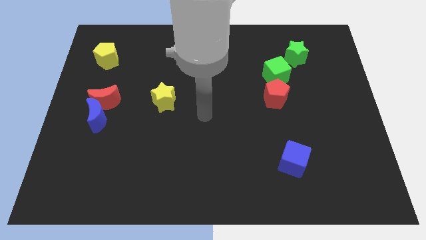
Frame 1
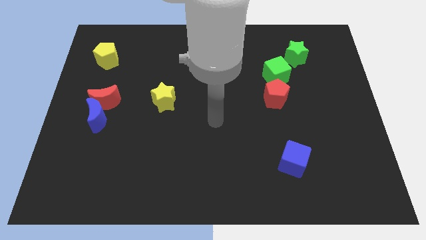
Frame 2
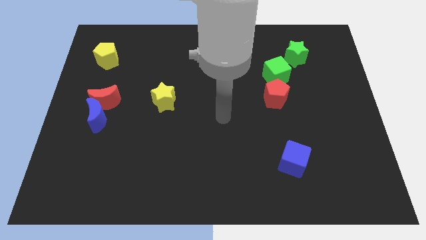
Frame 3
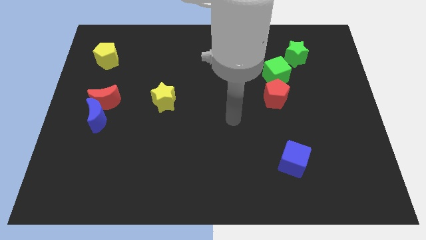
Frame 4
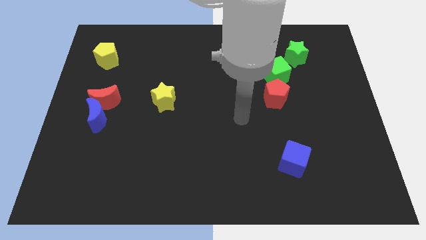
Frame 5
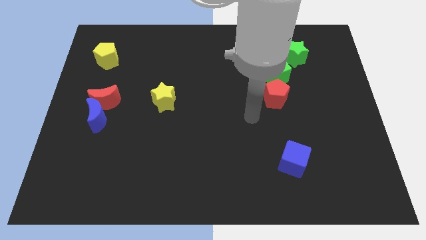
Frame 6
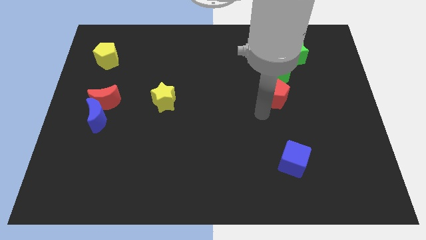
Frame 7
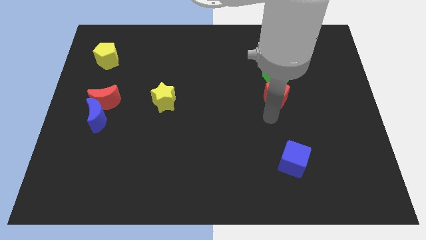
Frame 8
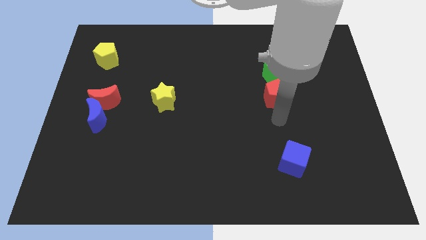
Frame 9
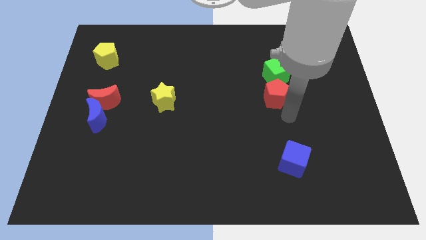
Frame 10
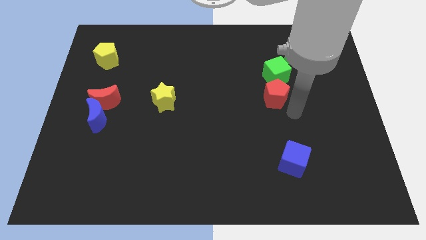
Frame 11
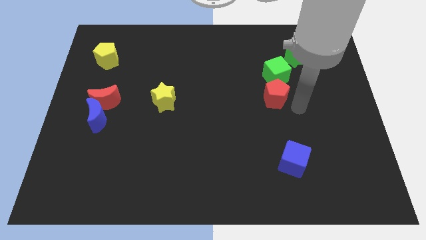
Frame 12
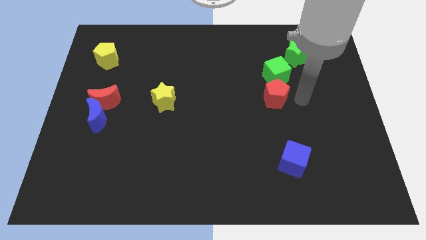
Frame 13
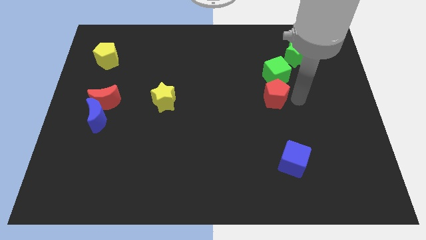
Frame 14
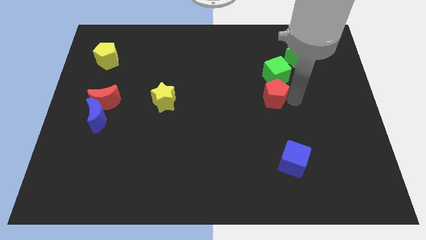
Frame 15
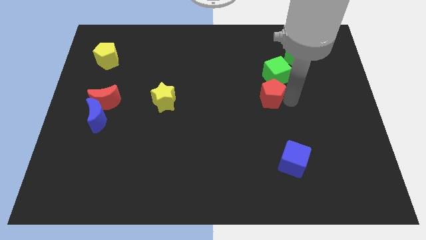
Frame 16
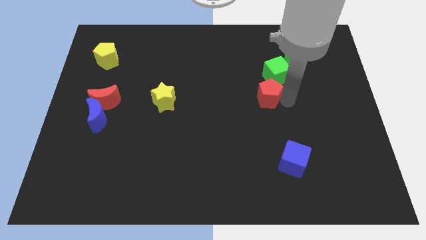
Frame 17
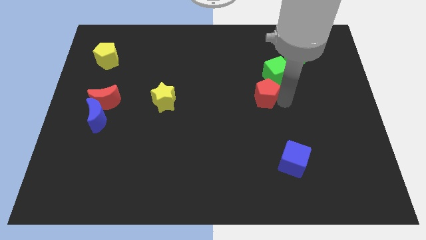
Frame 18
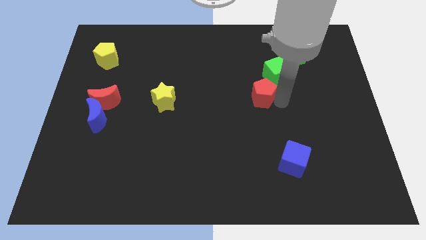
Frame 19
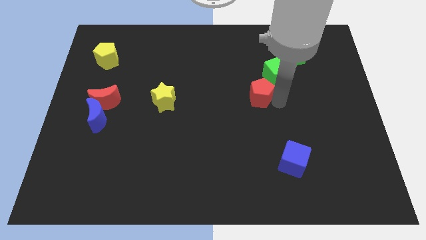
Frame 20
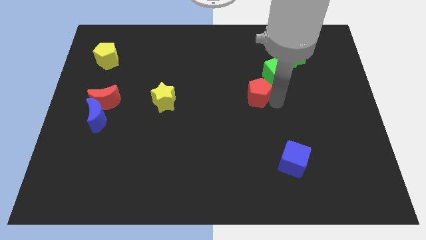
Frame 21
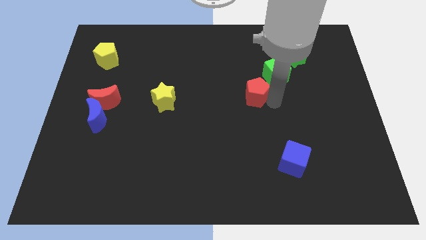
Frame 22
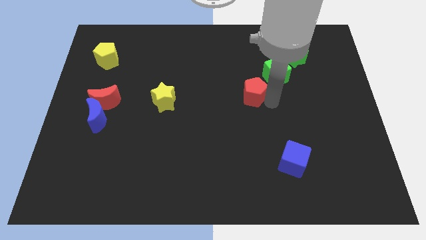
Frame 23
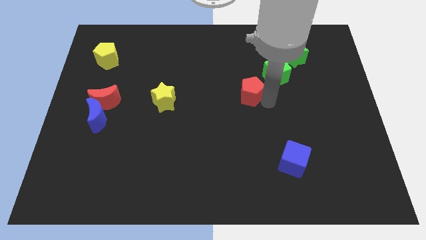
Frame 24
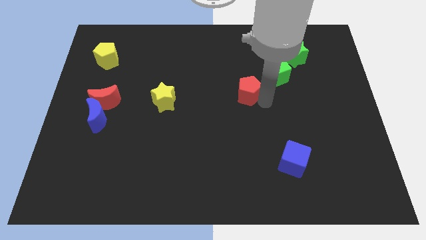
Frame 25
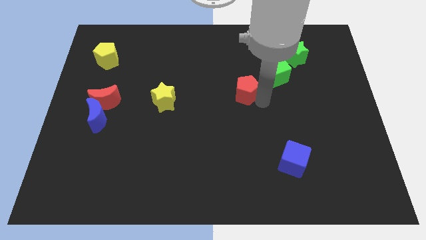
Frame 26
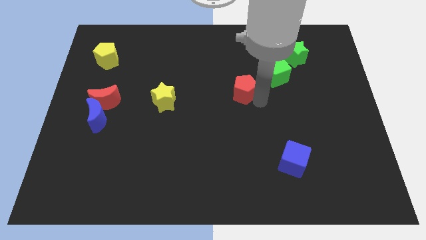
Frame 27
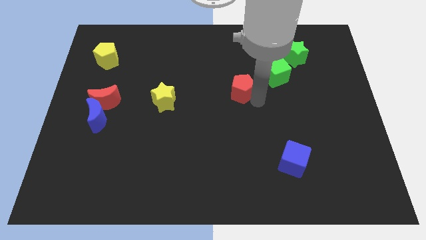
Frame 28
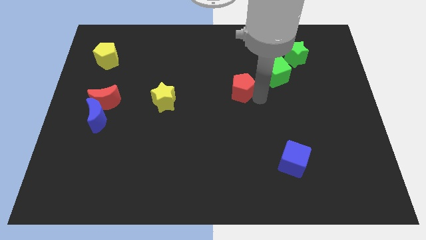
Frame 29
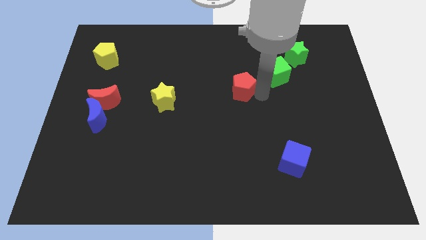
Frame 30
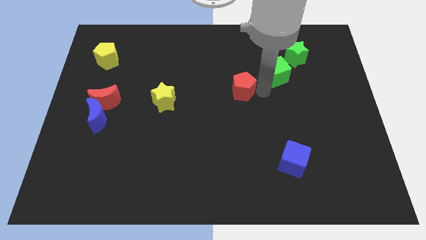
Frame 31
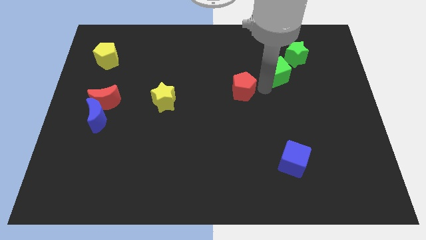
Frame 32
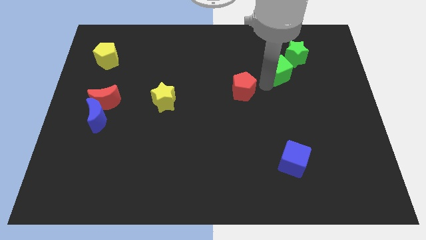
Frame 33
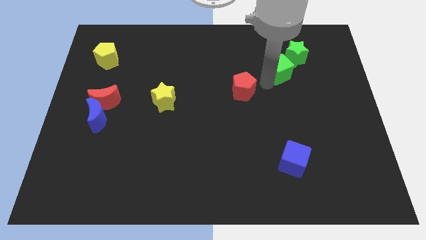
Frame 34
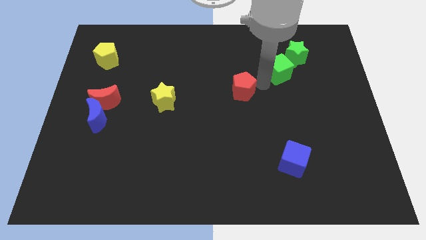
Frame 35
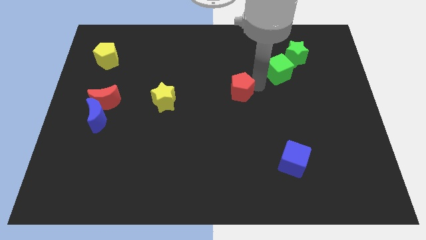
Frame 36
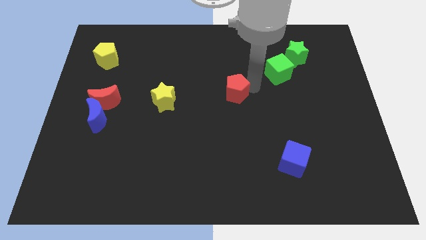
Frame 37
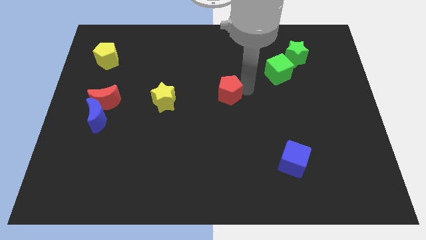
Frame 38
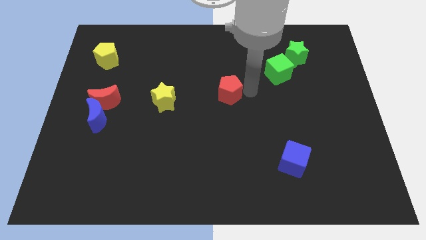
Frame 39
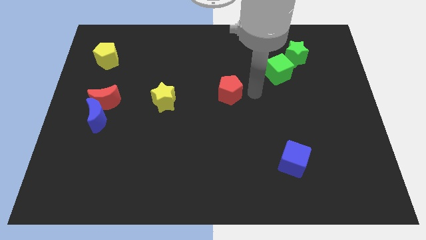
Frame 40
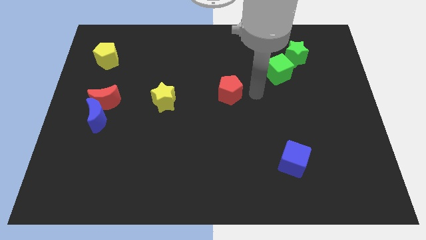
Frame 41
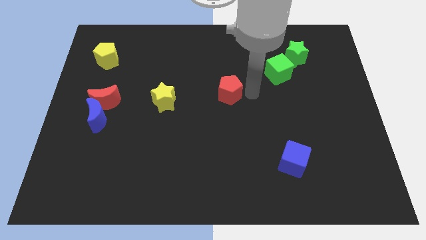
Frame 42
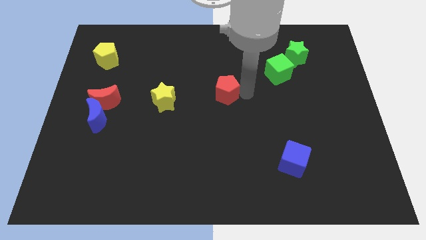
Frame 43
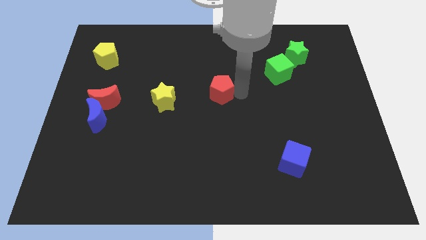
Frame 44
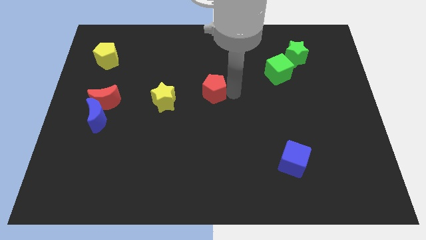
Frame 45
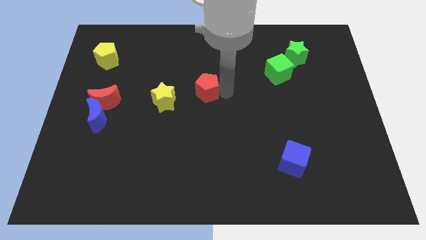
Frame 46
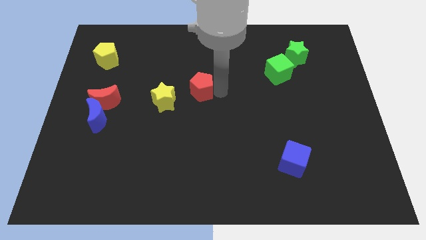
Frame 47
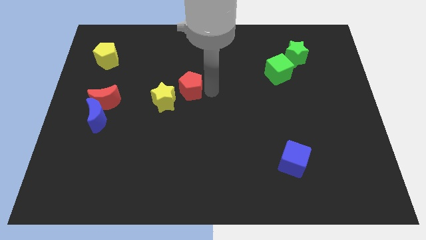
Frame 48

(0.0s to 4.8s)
push the red pentagon to the left

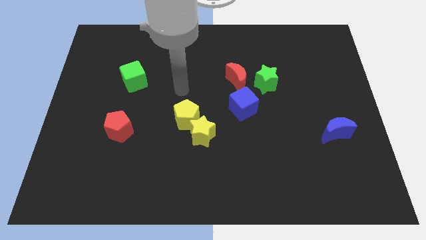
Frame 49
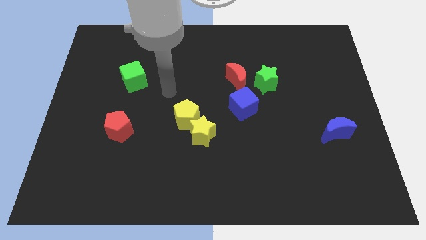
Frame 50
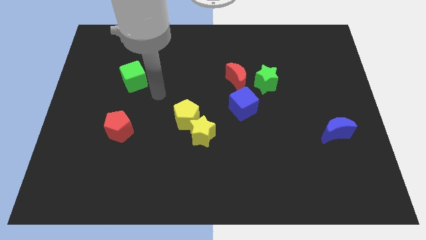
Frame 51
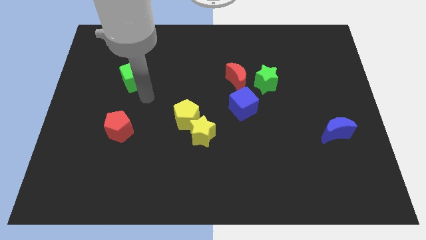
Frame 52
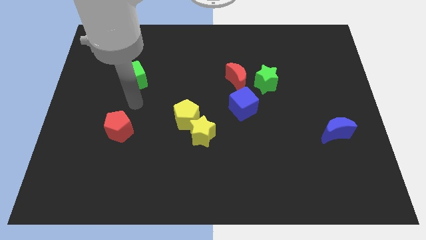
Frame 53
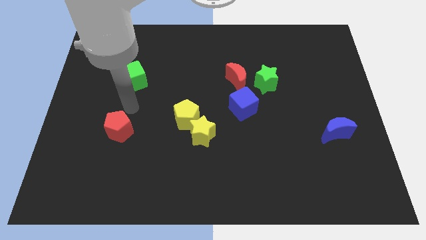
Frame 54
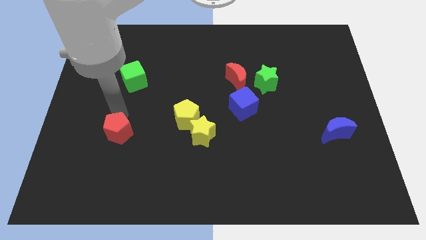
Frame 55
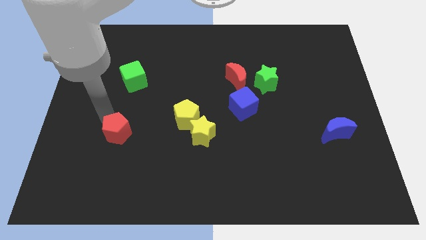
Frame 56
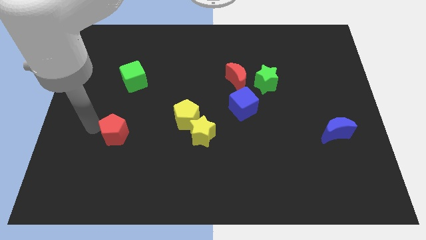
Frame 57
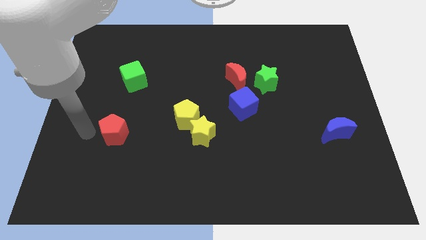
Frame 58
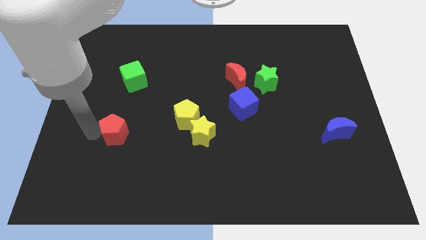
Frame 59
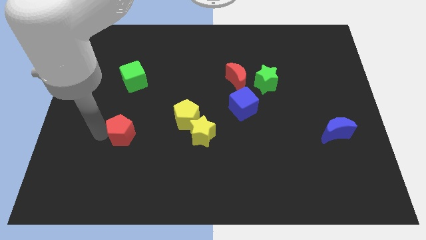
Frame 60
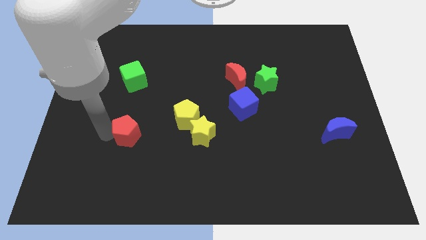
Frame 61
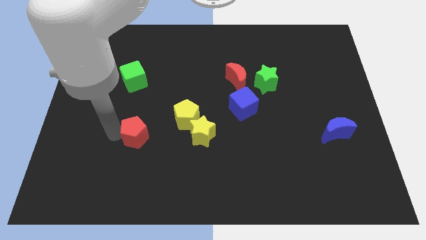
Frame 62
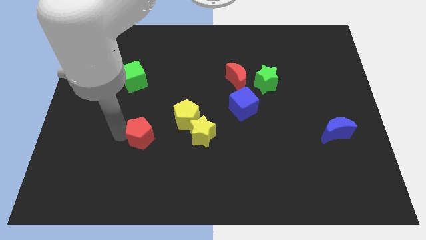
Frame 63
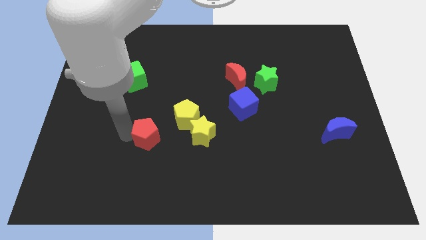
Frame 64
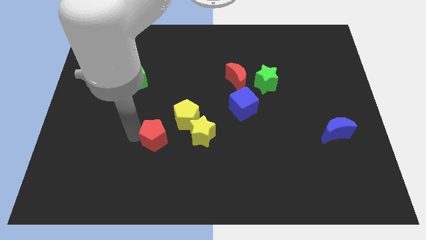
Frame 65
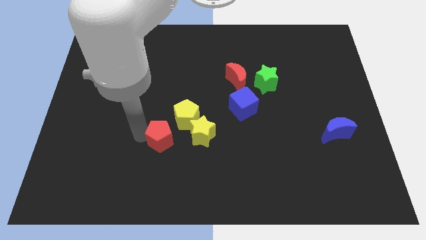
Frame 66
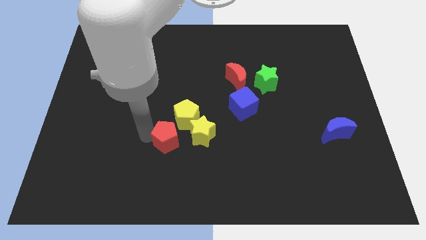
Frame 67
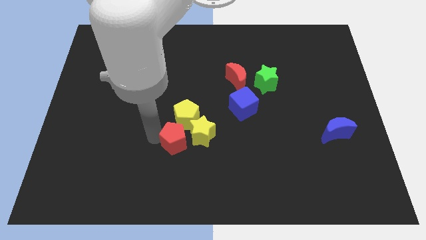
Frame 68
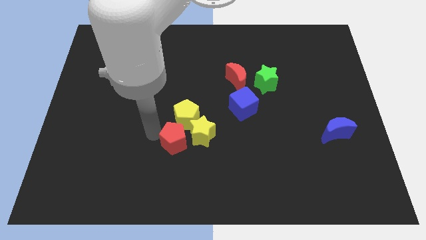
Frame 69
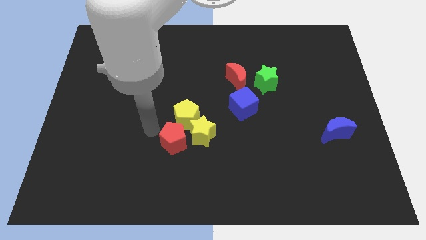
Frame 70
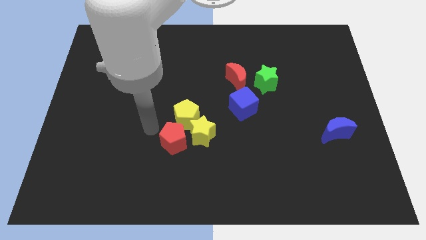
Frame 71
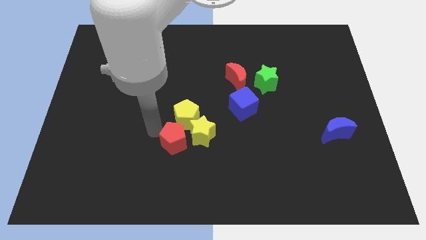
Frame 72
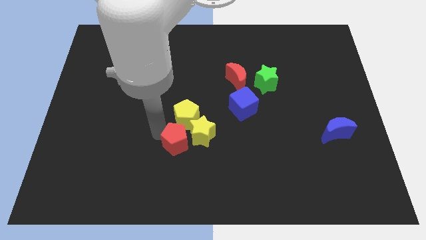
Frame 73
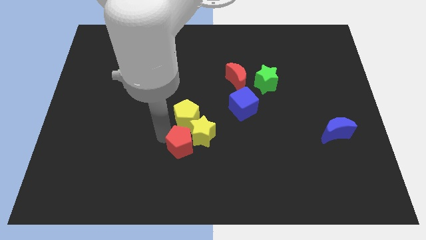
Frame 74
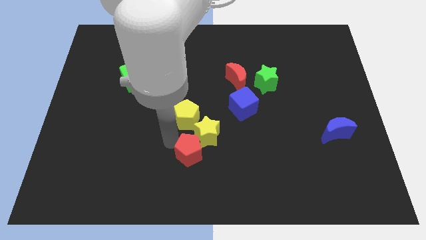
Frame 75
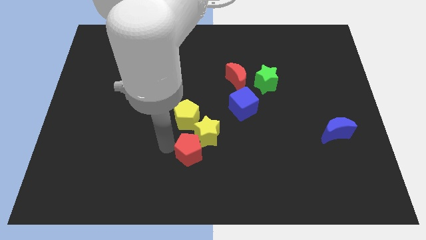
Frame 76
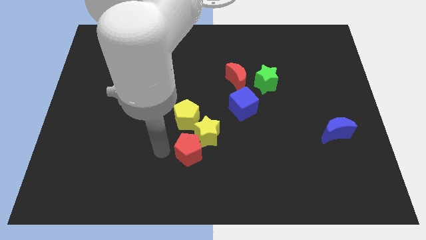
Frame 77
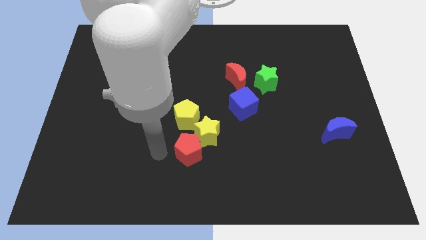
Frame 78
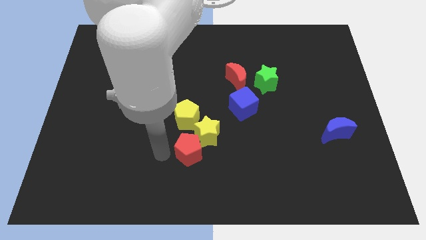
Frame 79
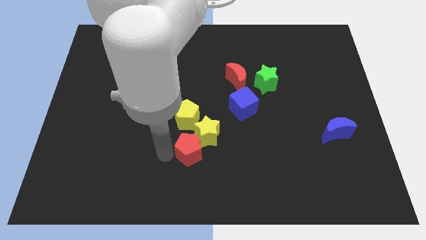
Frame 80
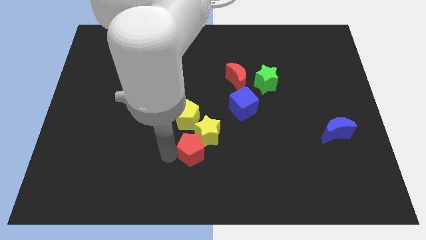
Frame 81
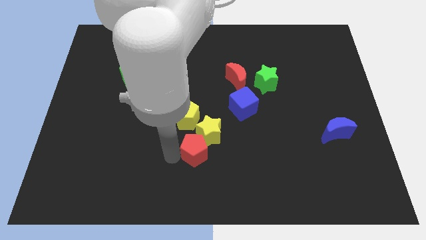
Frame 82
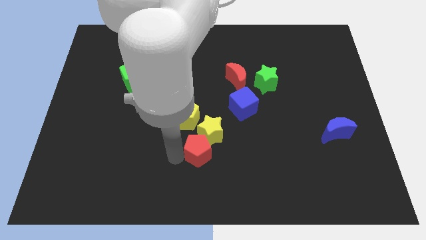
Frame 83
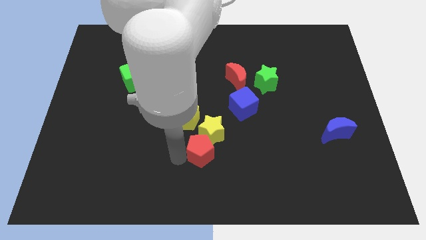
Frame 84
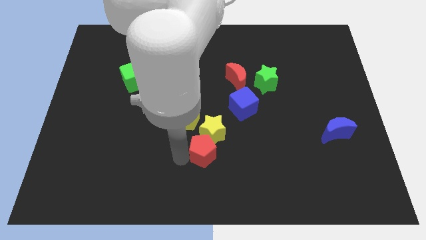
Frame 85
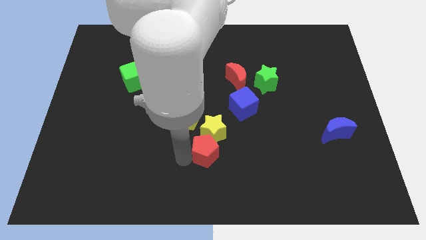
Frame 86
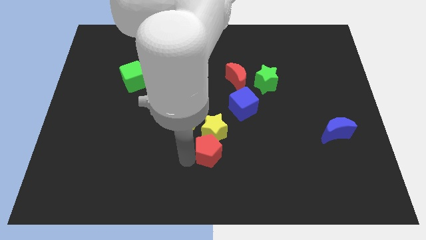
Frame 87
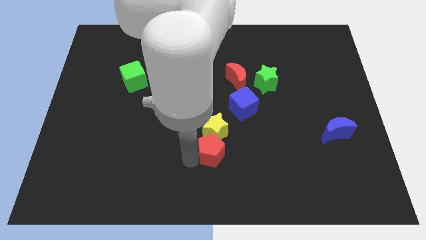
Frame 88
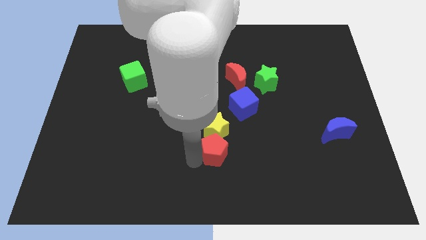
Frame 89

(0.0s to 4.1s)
push the red pentagon to the right
